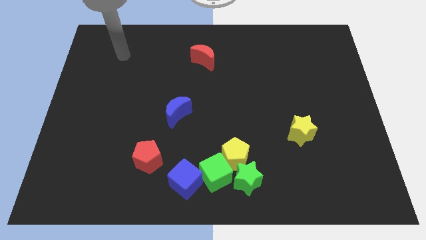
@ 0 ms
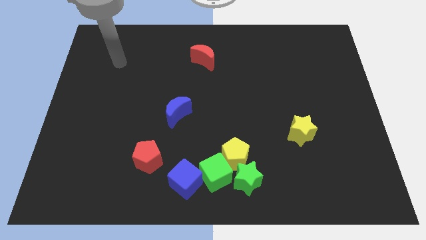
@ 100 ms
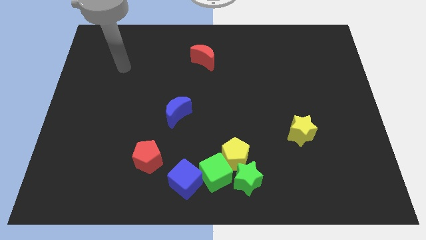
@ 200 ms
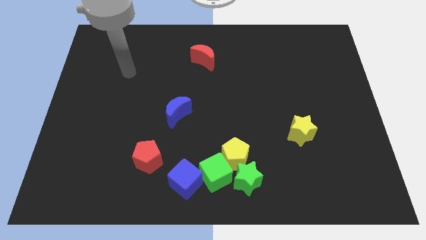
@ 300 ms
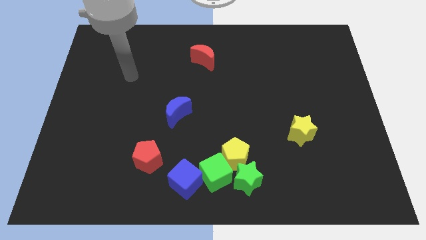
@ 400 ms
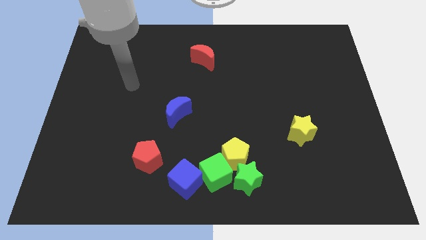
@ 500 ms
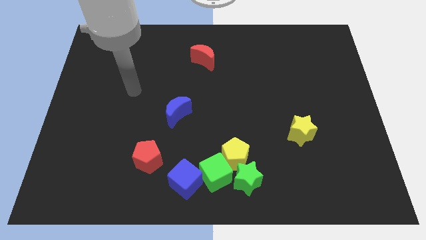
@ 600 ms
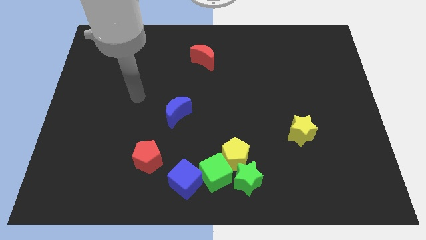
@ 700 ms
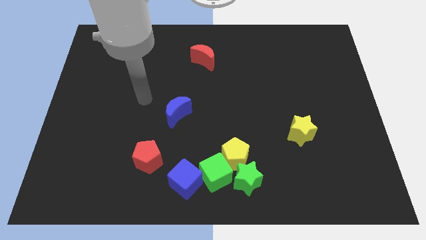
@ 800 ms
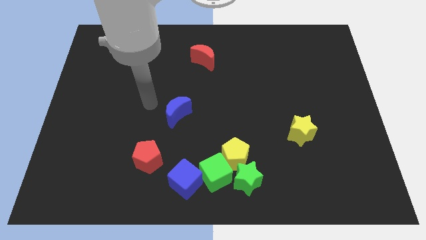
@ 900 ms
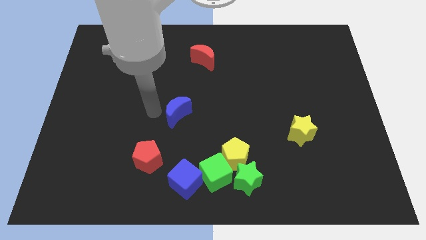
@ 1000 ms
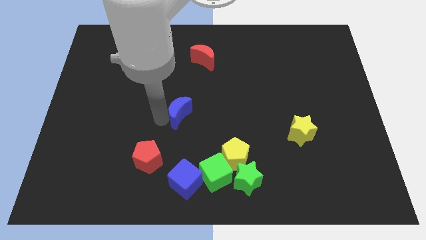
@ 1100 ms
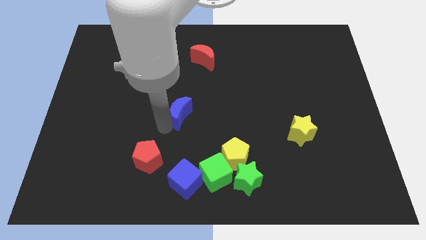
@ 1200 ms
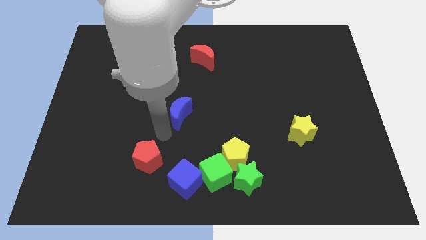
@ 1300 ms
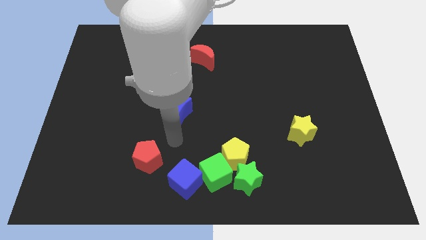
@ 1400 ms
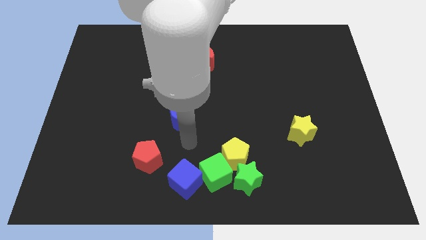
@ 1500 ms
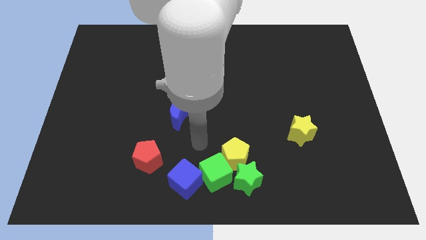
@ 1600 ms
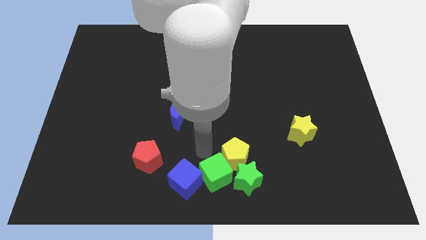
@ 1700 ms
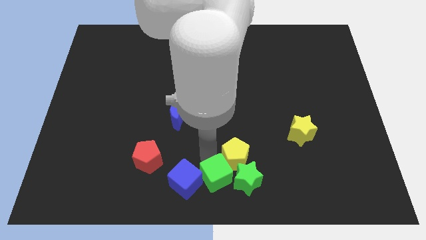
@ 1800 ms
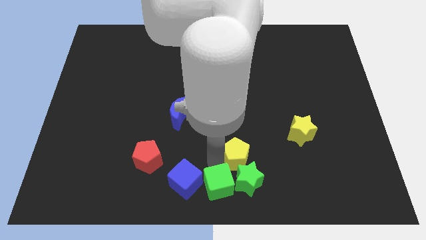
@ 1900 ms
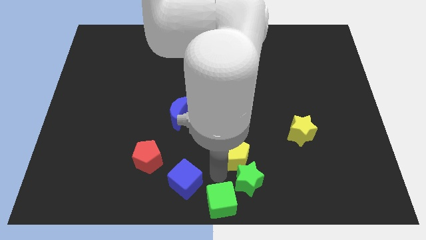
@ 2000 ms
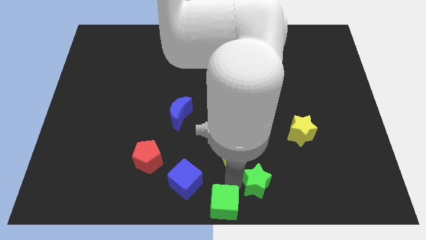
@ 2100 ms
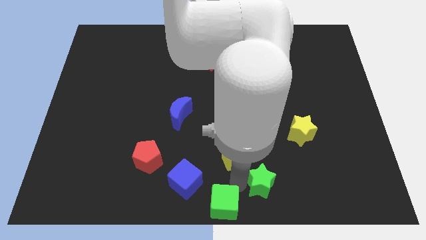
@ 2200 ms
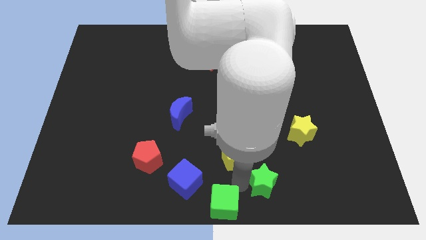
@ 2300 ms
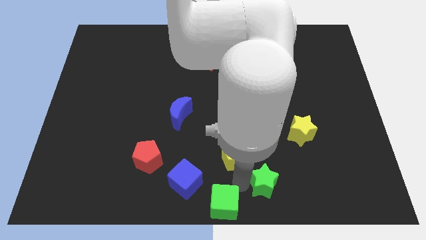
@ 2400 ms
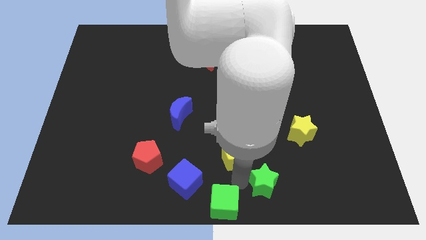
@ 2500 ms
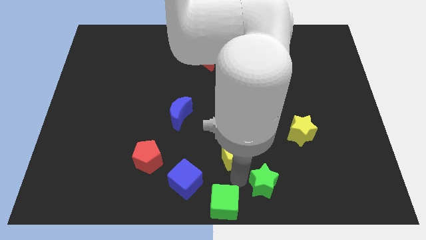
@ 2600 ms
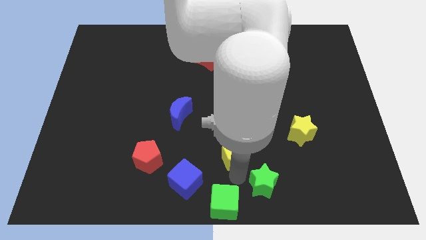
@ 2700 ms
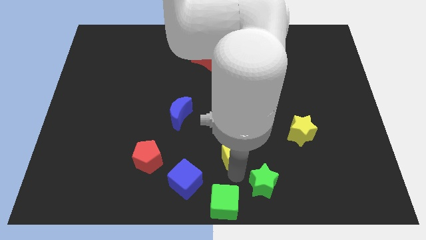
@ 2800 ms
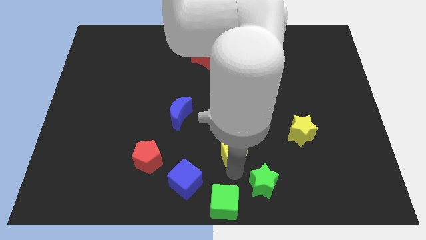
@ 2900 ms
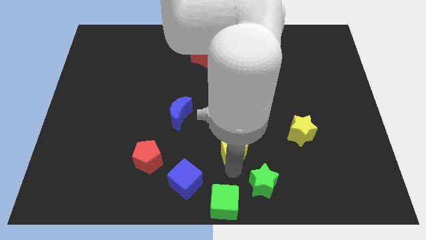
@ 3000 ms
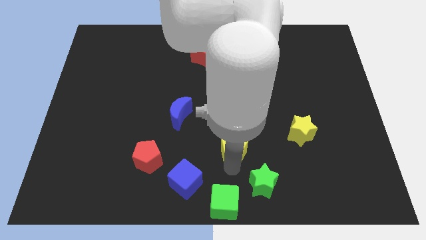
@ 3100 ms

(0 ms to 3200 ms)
separate the yellow pentagon from the green star and green cube

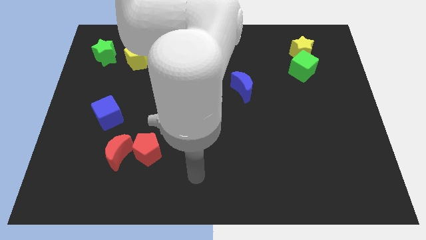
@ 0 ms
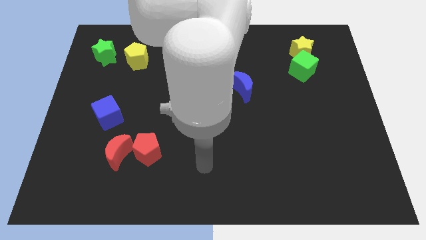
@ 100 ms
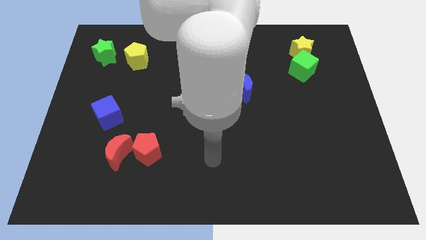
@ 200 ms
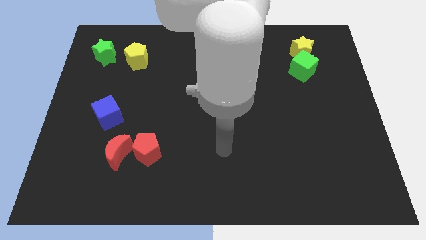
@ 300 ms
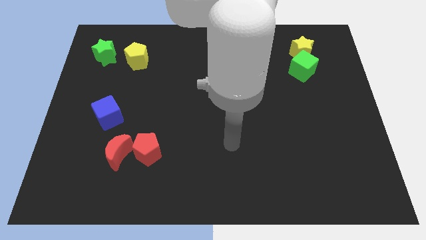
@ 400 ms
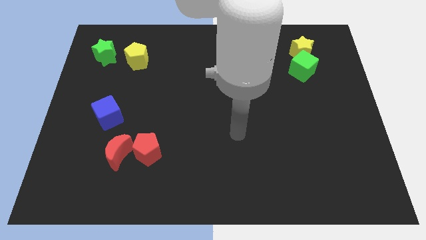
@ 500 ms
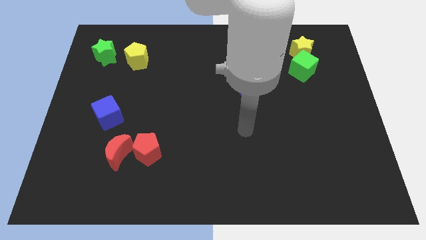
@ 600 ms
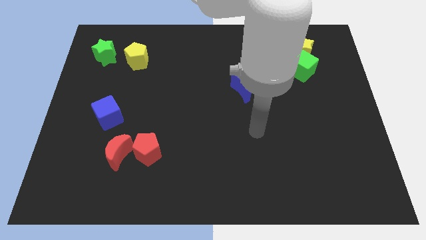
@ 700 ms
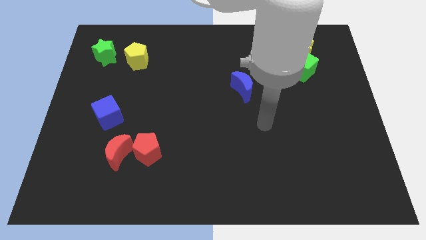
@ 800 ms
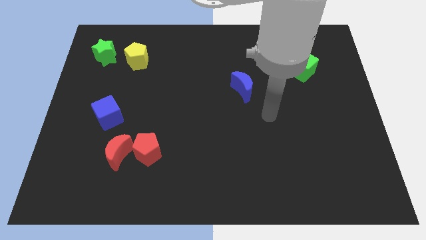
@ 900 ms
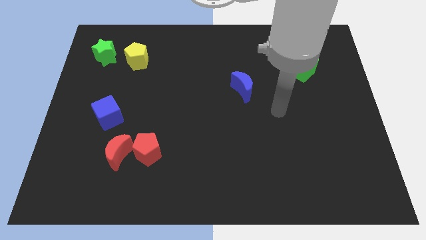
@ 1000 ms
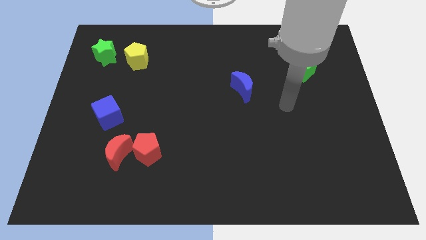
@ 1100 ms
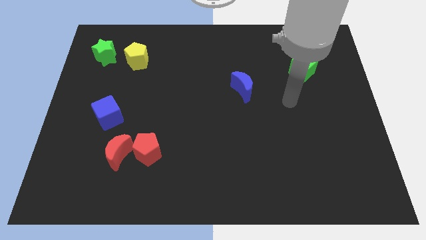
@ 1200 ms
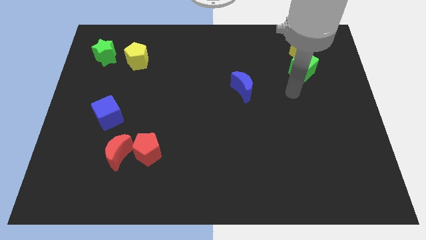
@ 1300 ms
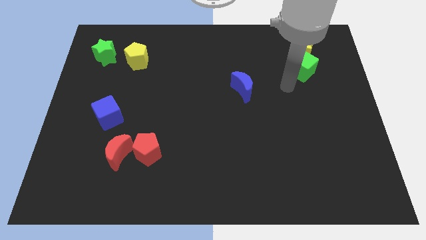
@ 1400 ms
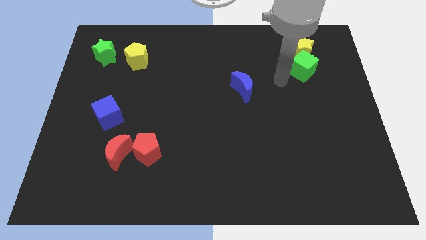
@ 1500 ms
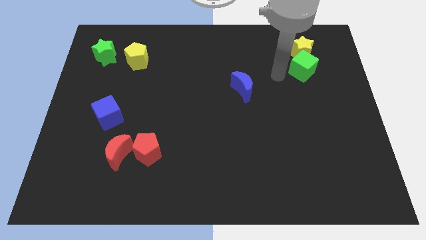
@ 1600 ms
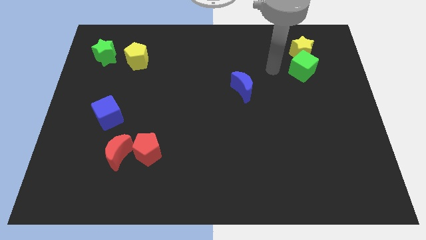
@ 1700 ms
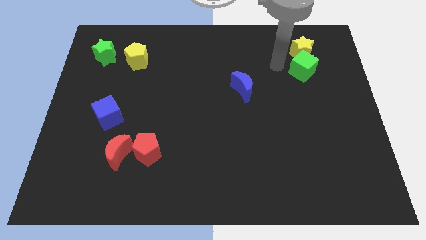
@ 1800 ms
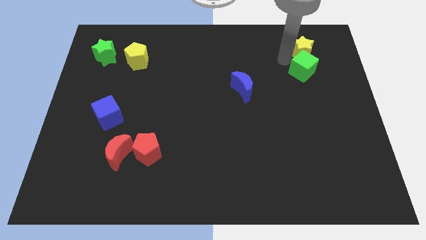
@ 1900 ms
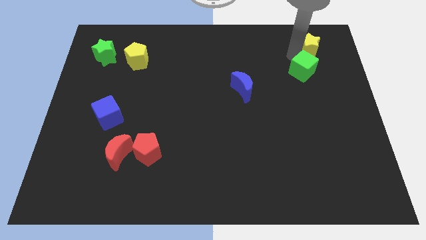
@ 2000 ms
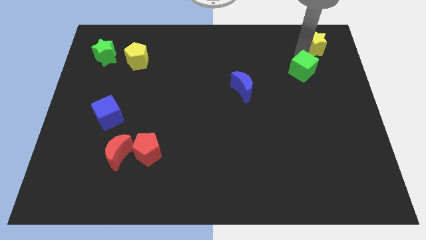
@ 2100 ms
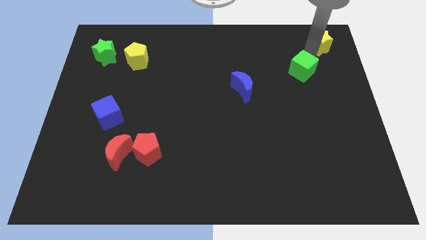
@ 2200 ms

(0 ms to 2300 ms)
pull the green cube apart from the yellow star

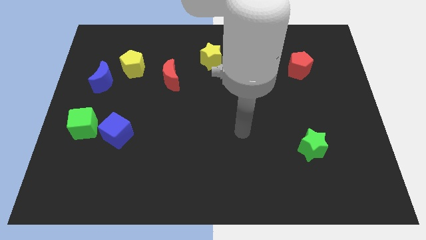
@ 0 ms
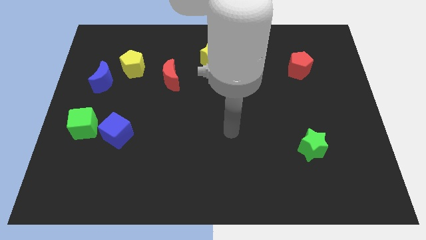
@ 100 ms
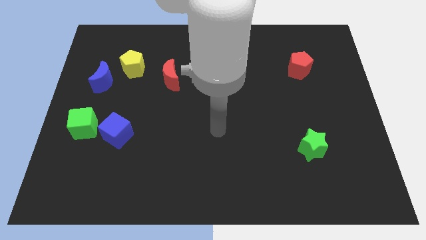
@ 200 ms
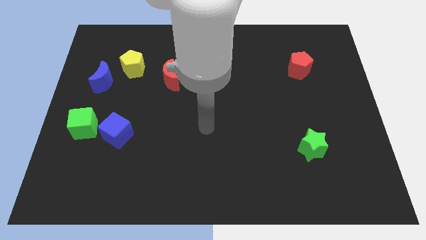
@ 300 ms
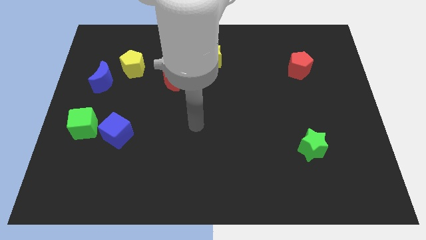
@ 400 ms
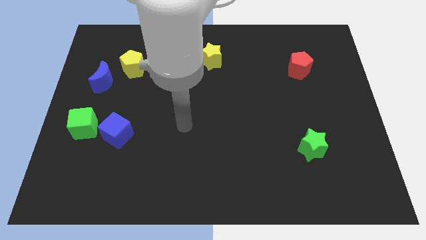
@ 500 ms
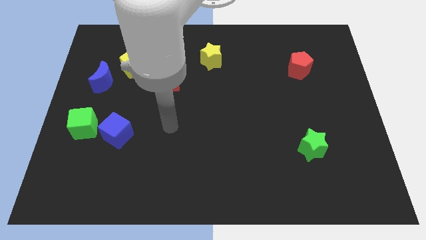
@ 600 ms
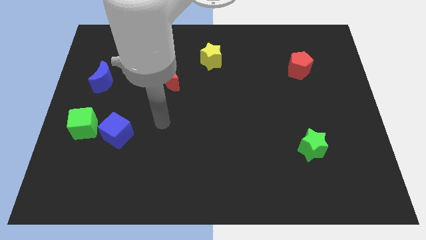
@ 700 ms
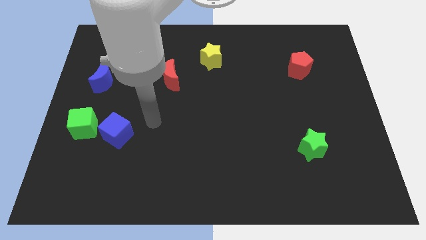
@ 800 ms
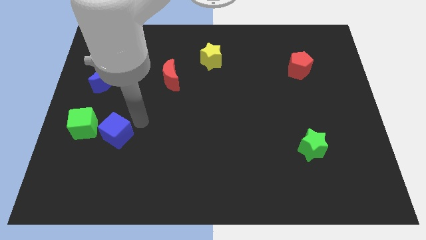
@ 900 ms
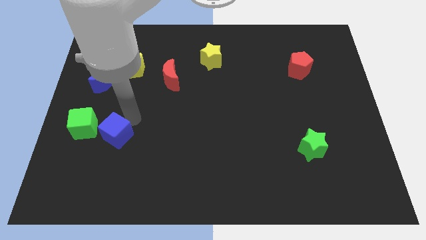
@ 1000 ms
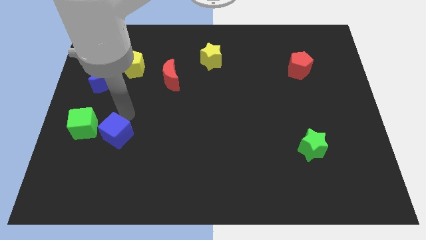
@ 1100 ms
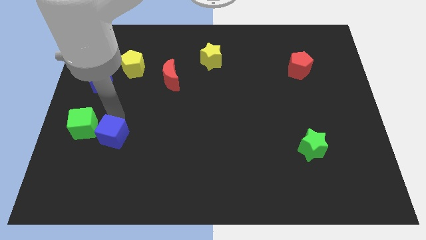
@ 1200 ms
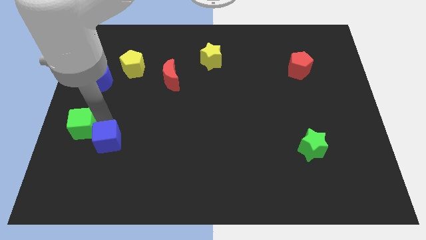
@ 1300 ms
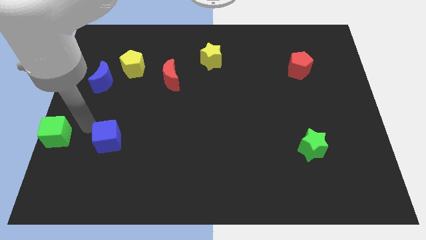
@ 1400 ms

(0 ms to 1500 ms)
move the blue cube away from the green cube

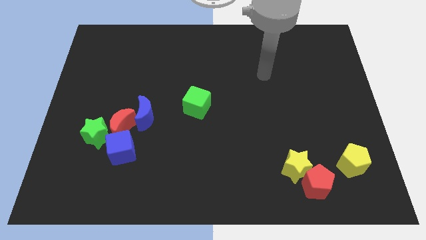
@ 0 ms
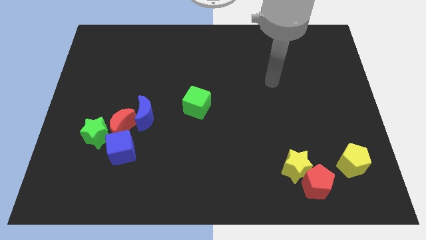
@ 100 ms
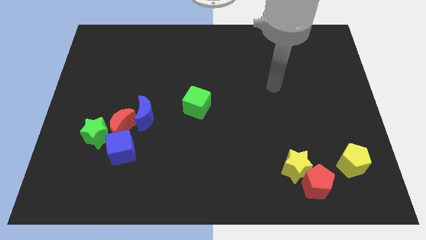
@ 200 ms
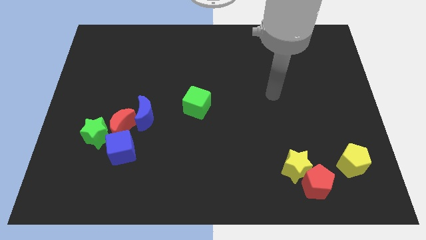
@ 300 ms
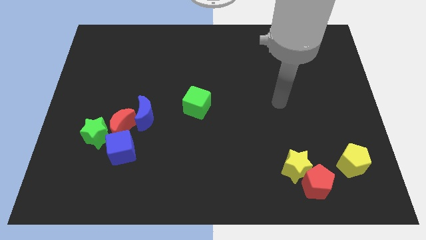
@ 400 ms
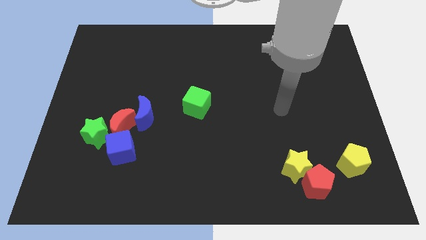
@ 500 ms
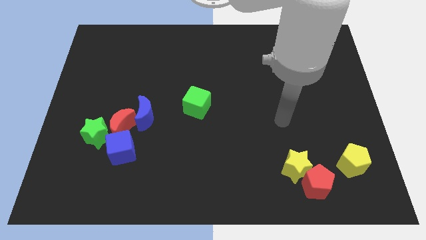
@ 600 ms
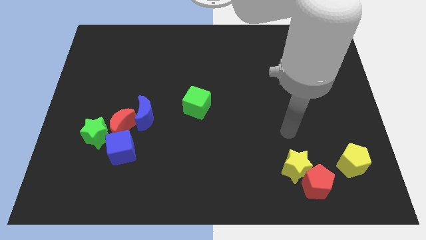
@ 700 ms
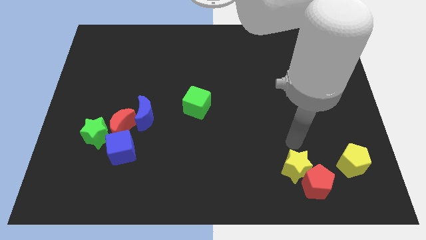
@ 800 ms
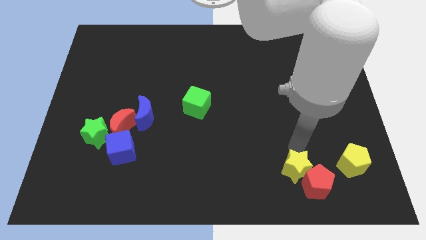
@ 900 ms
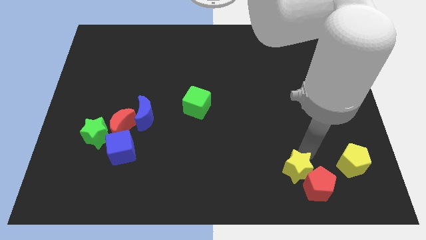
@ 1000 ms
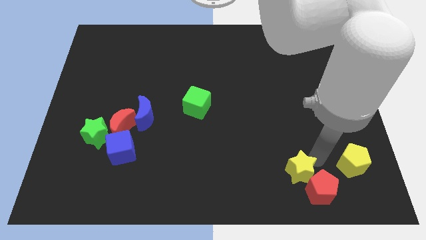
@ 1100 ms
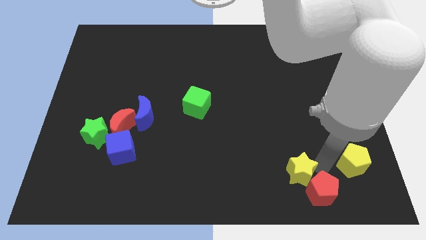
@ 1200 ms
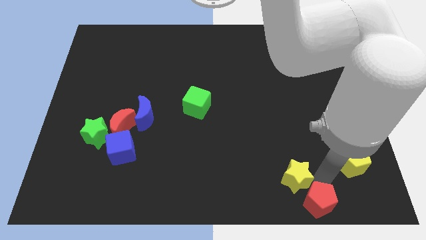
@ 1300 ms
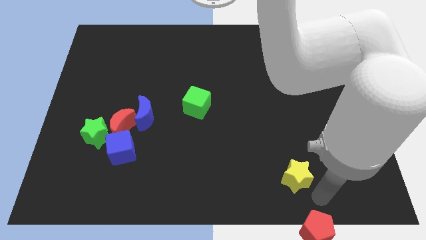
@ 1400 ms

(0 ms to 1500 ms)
pull the yellow star apart from the red pentagon

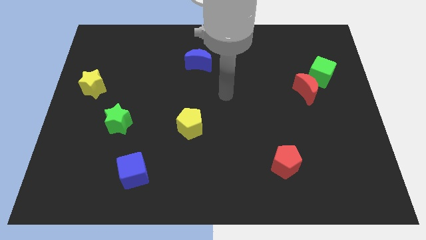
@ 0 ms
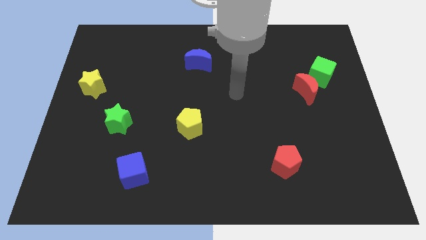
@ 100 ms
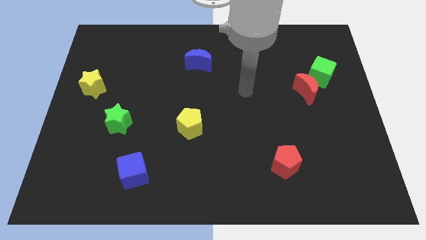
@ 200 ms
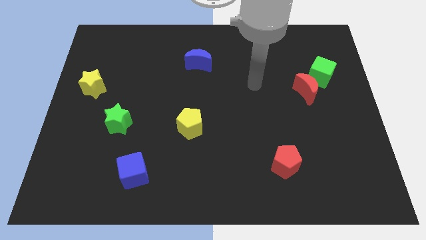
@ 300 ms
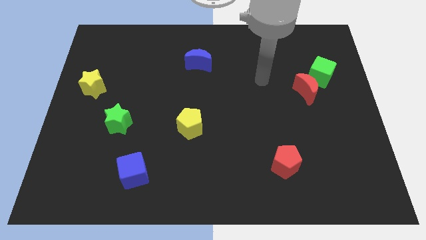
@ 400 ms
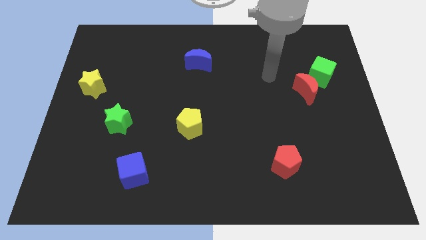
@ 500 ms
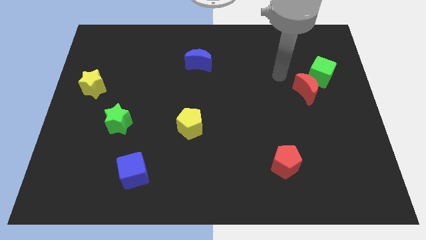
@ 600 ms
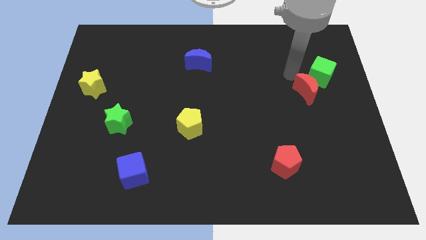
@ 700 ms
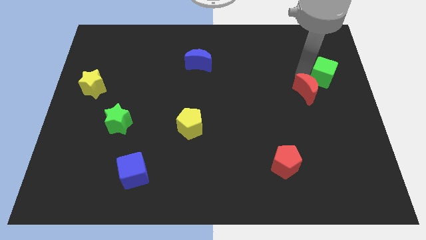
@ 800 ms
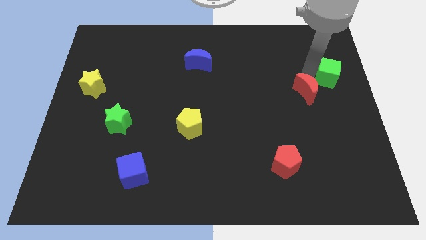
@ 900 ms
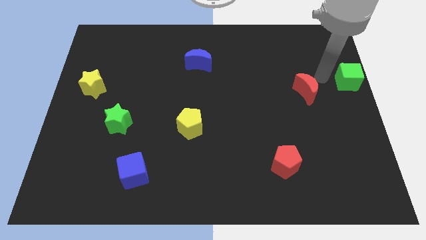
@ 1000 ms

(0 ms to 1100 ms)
separate the red moon from the green cube
